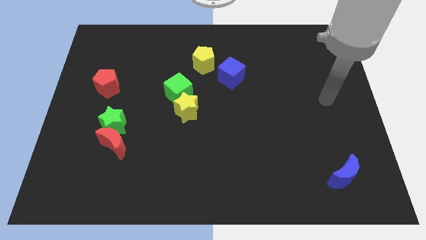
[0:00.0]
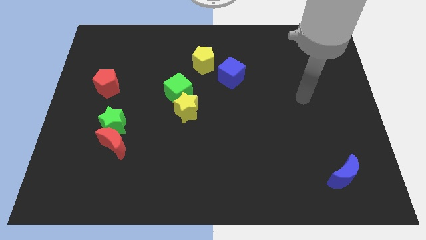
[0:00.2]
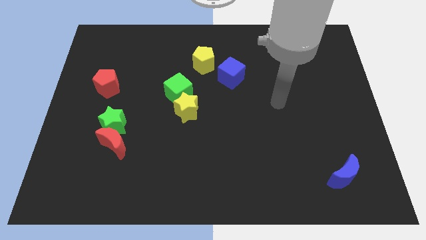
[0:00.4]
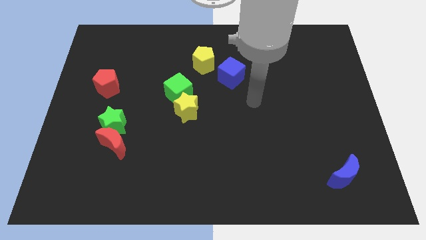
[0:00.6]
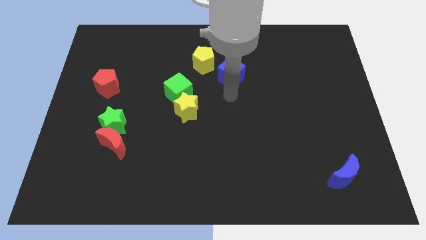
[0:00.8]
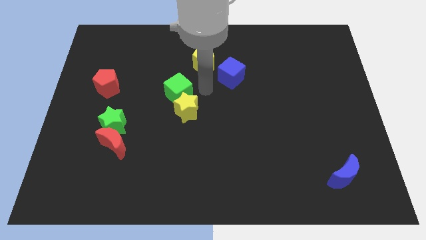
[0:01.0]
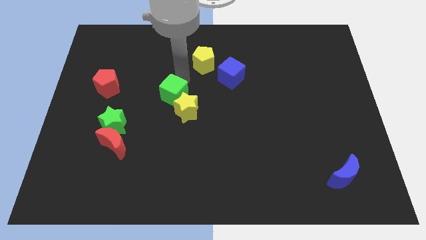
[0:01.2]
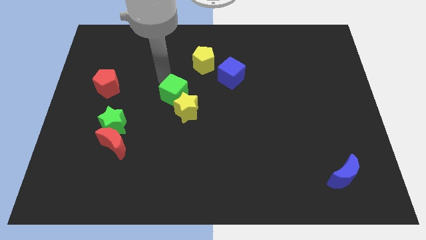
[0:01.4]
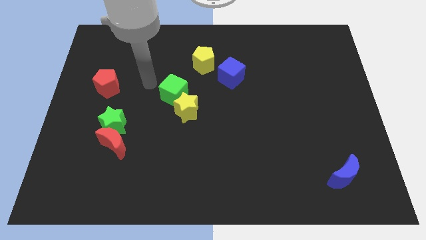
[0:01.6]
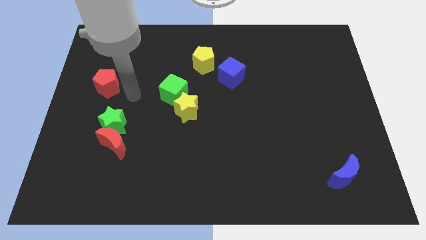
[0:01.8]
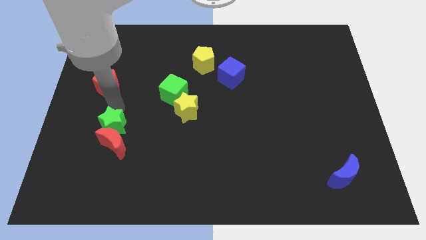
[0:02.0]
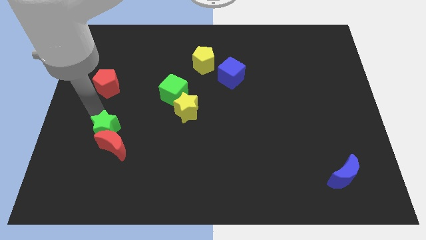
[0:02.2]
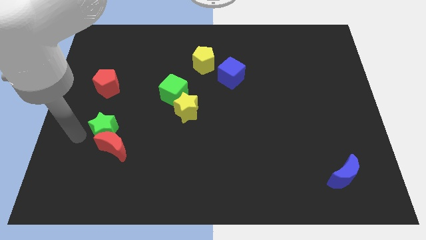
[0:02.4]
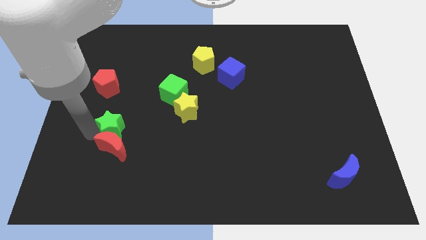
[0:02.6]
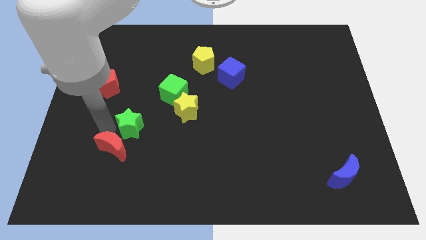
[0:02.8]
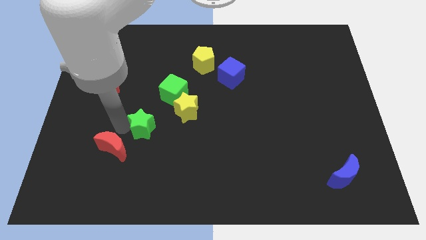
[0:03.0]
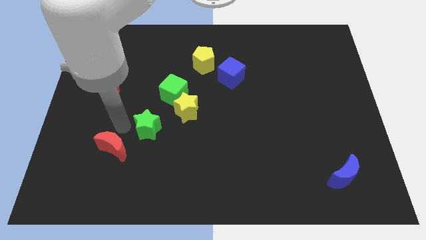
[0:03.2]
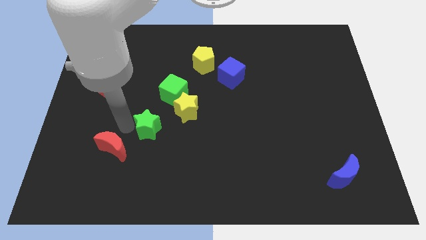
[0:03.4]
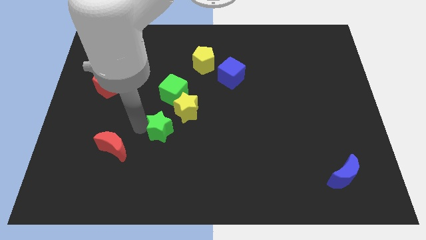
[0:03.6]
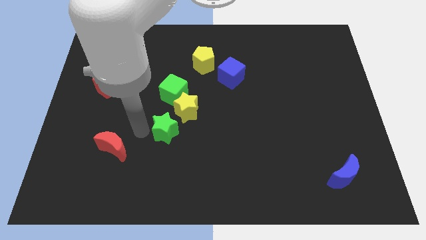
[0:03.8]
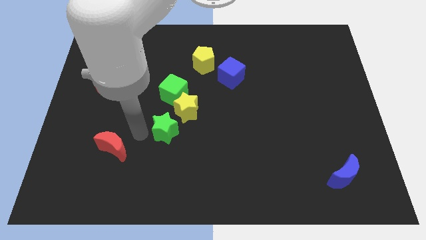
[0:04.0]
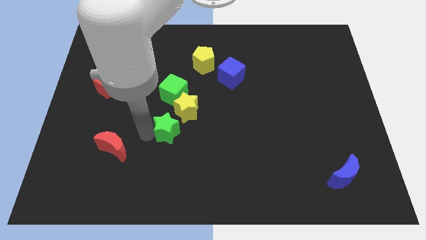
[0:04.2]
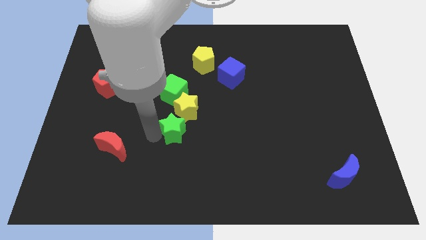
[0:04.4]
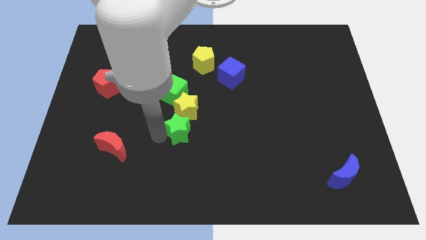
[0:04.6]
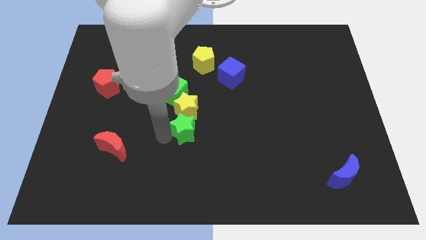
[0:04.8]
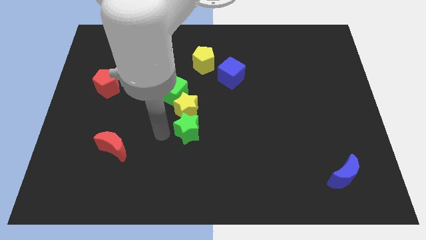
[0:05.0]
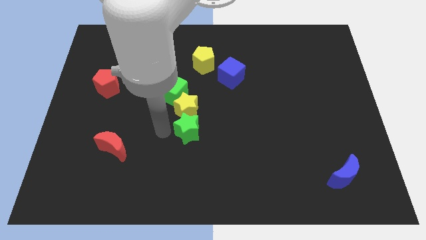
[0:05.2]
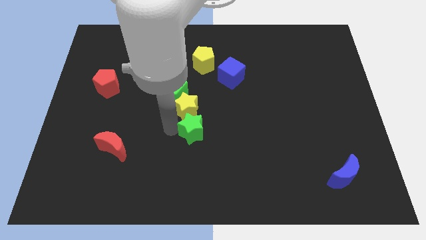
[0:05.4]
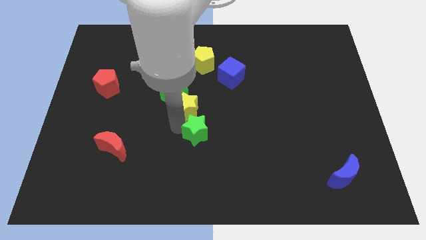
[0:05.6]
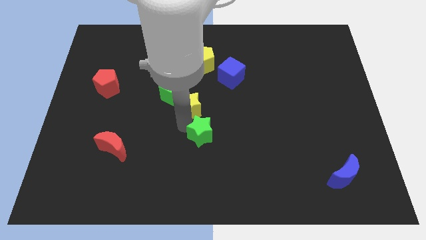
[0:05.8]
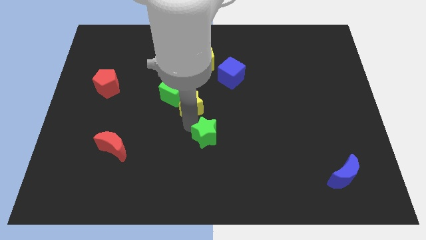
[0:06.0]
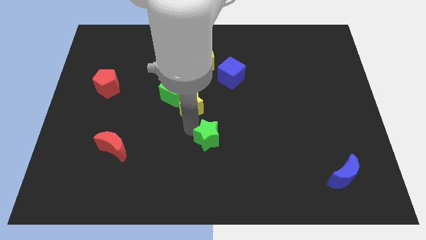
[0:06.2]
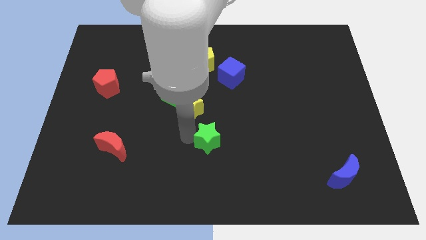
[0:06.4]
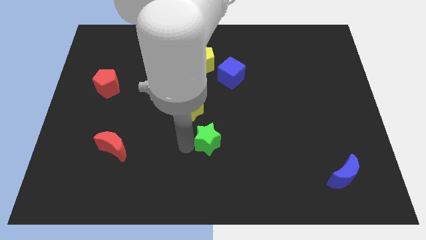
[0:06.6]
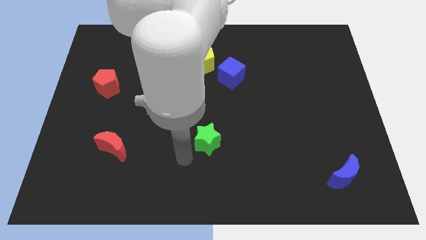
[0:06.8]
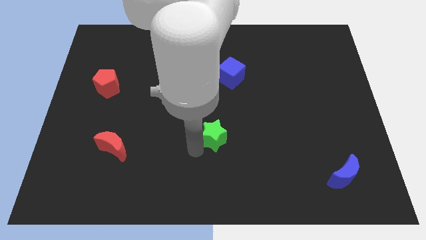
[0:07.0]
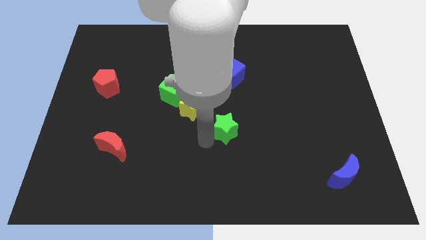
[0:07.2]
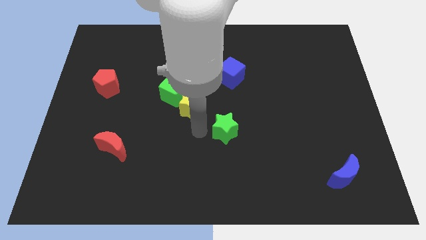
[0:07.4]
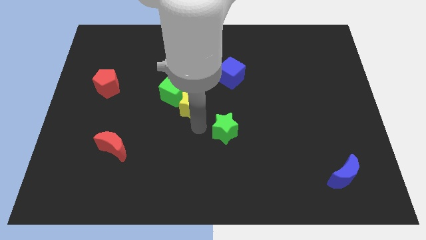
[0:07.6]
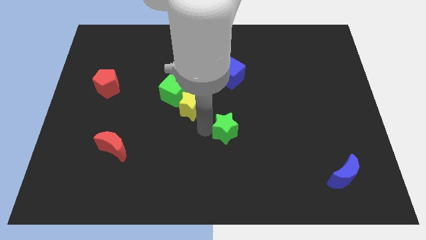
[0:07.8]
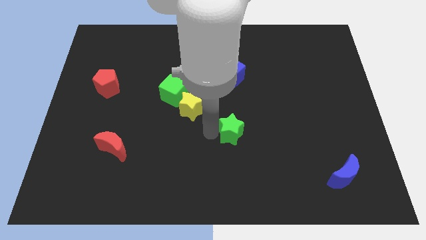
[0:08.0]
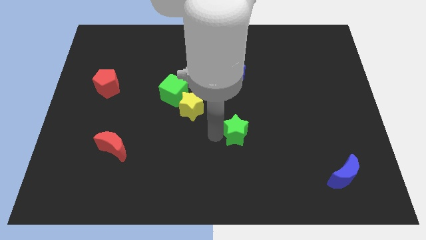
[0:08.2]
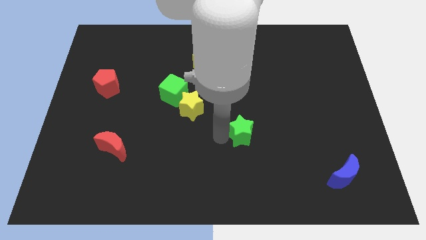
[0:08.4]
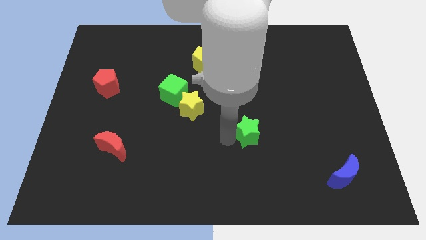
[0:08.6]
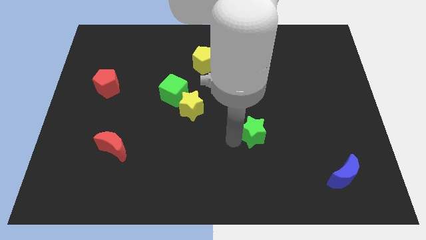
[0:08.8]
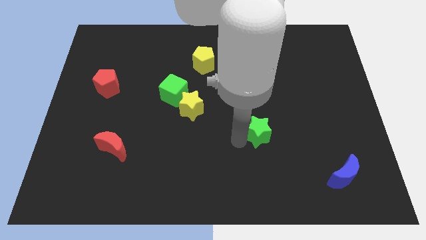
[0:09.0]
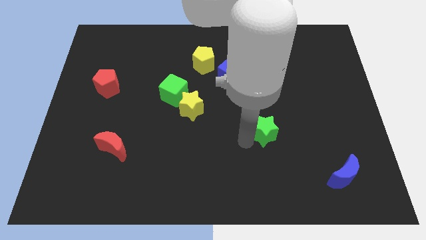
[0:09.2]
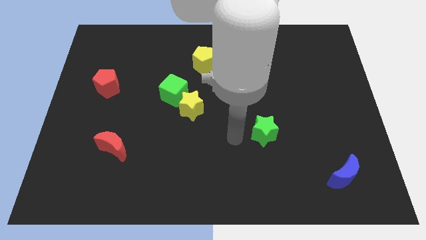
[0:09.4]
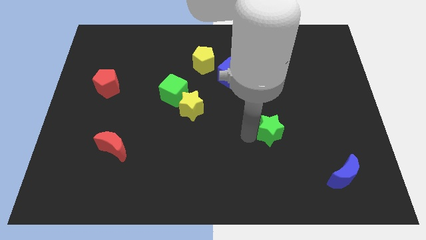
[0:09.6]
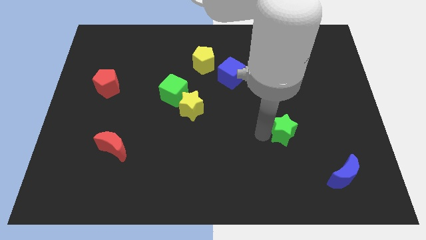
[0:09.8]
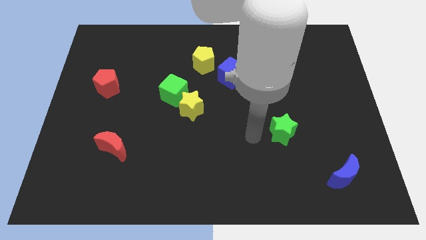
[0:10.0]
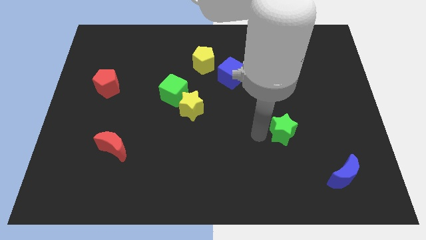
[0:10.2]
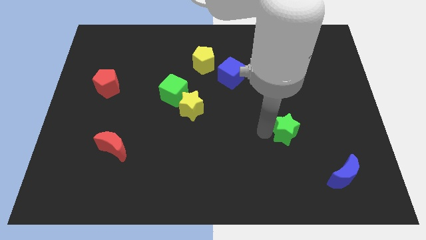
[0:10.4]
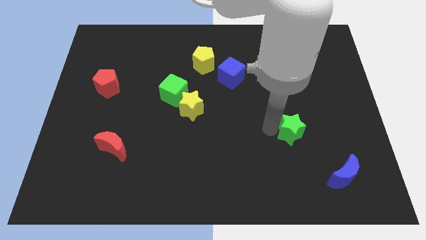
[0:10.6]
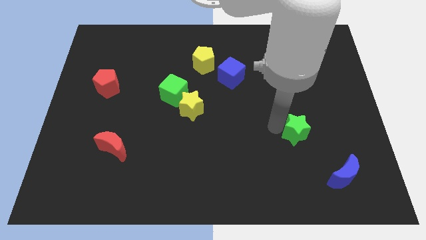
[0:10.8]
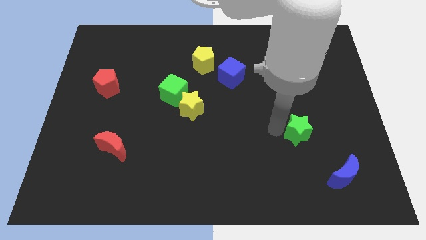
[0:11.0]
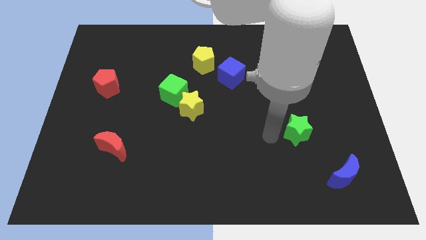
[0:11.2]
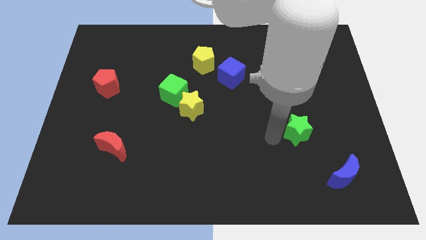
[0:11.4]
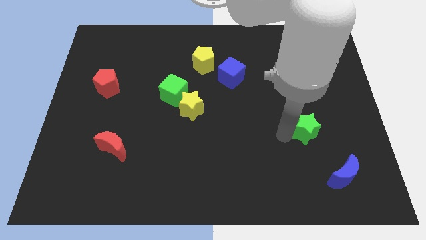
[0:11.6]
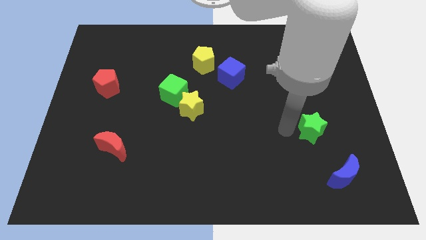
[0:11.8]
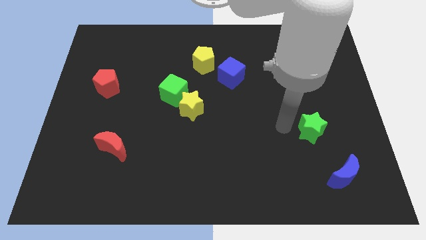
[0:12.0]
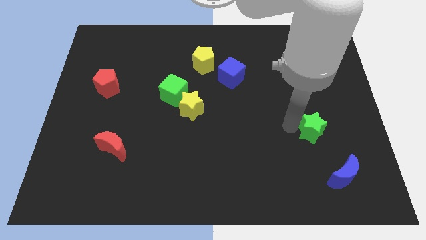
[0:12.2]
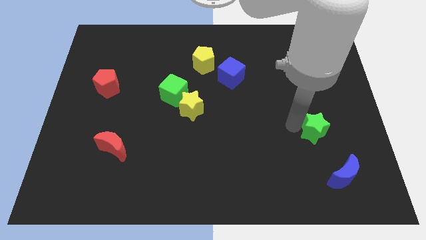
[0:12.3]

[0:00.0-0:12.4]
slide the green star to the top of the blue moon
